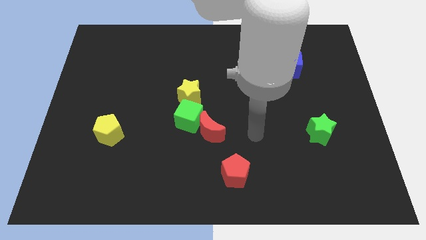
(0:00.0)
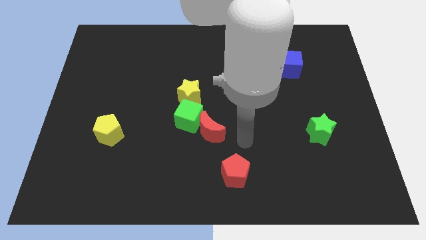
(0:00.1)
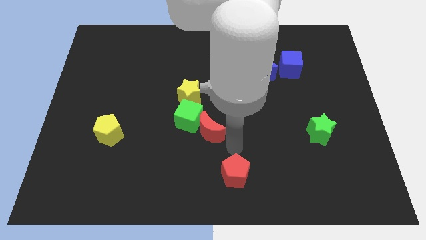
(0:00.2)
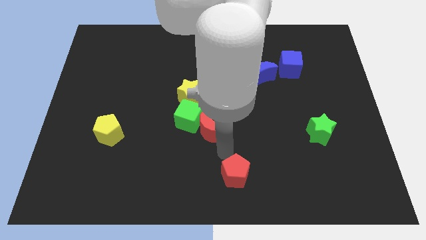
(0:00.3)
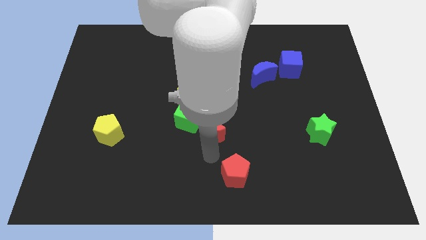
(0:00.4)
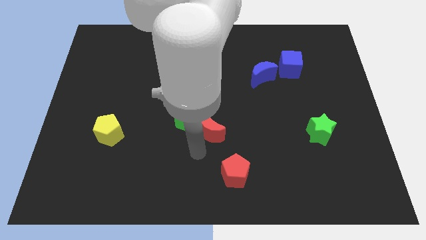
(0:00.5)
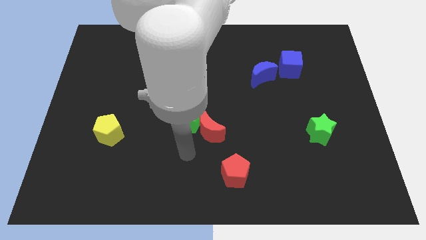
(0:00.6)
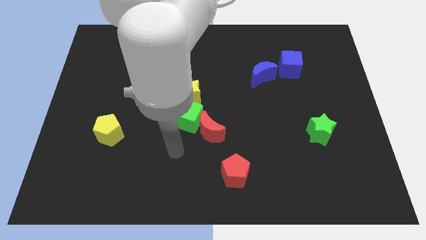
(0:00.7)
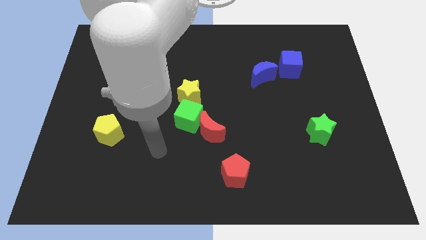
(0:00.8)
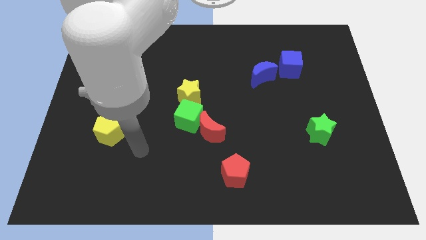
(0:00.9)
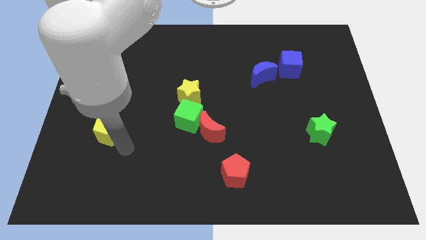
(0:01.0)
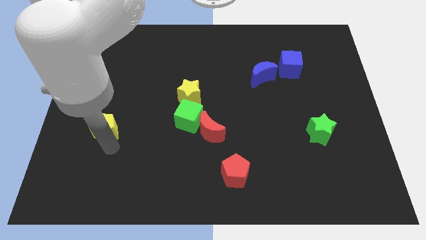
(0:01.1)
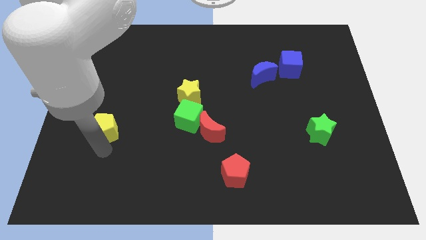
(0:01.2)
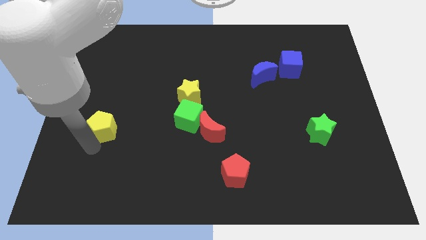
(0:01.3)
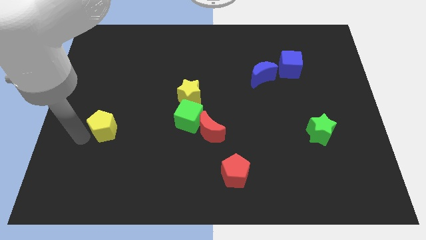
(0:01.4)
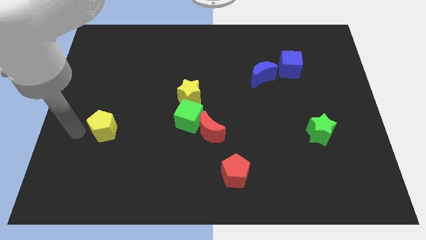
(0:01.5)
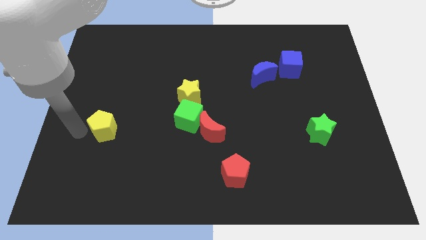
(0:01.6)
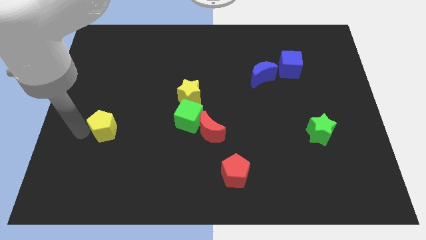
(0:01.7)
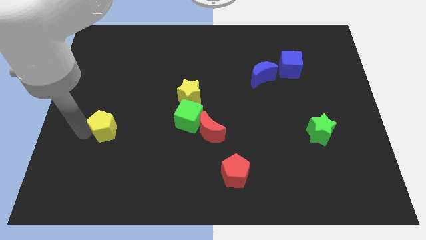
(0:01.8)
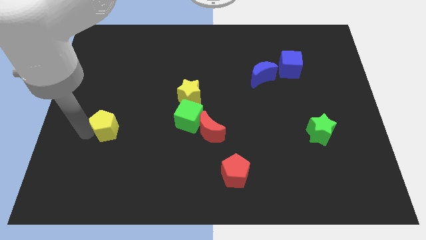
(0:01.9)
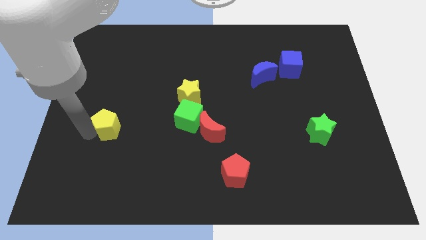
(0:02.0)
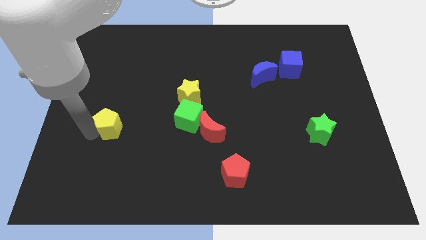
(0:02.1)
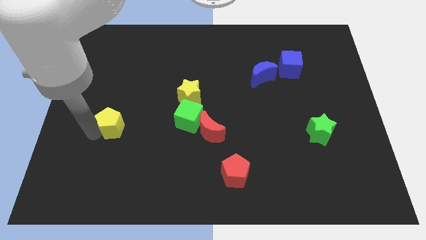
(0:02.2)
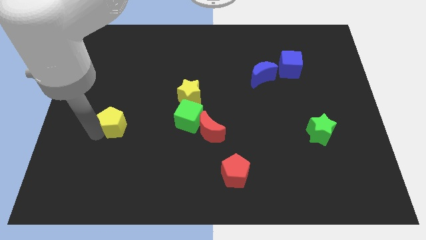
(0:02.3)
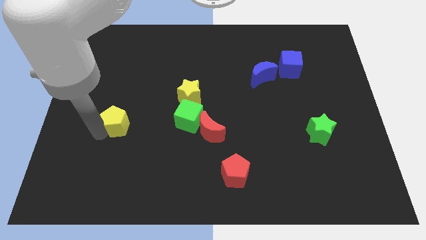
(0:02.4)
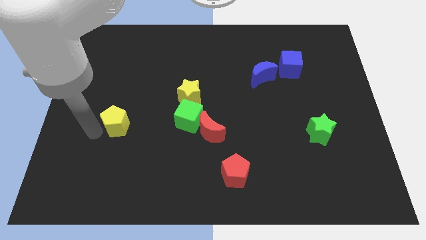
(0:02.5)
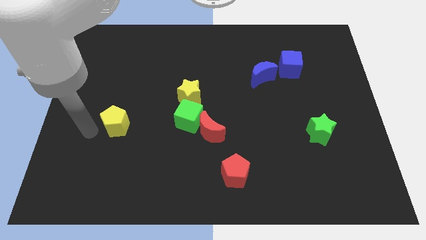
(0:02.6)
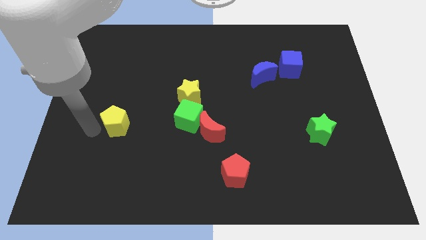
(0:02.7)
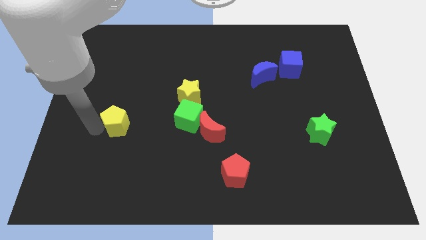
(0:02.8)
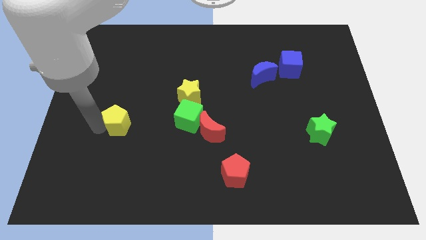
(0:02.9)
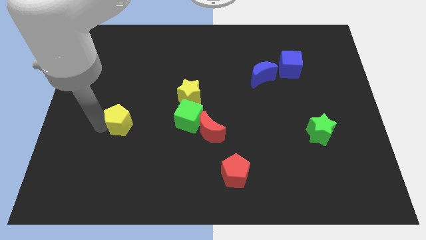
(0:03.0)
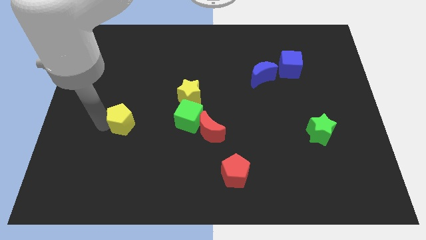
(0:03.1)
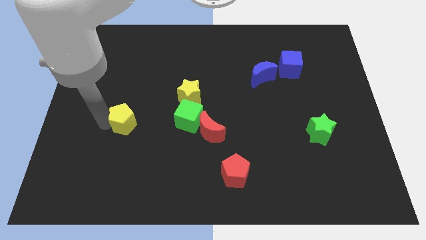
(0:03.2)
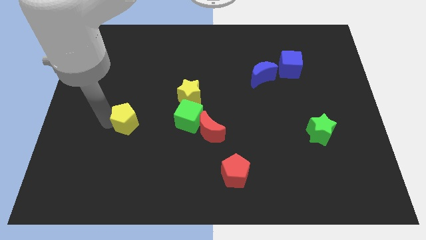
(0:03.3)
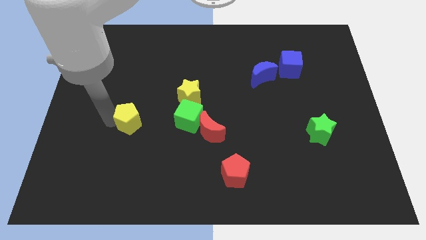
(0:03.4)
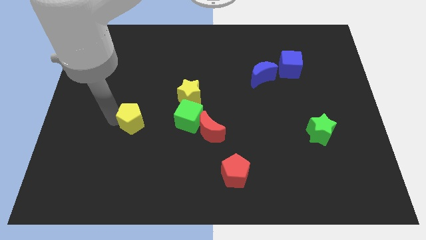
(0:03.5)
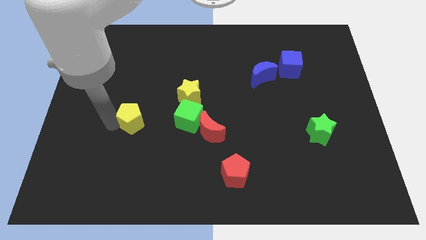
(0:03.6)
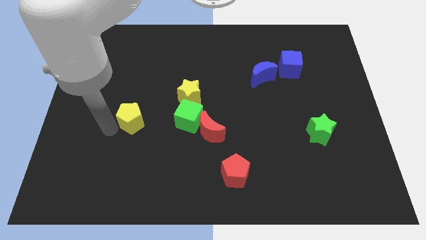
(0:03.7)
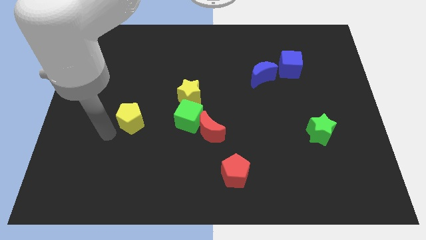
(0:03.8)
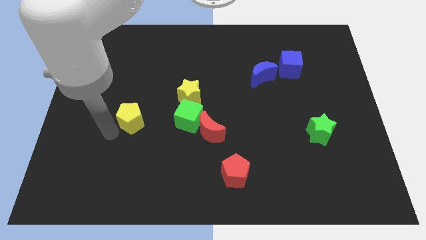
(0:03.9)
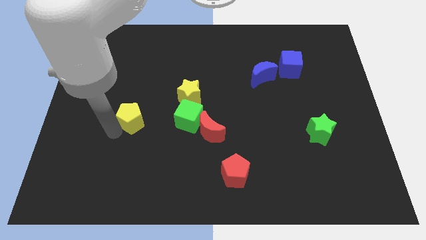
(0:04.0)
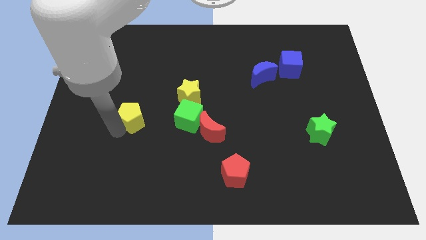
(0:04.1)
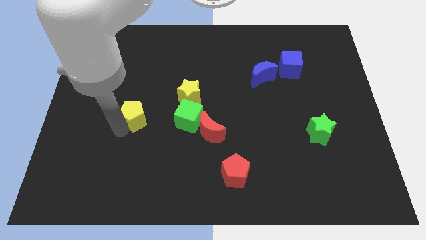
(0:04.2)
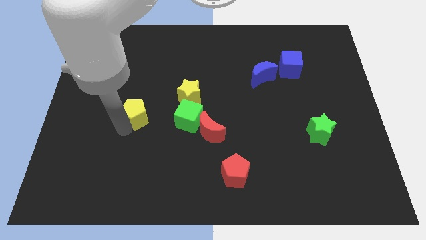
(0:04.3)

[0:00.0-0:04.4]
slide the yellow pentagon somewhat upwards and then right

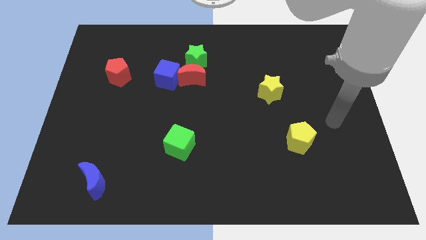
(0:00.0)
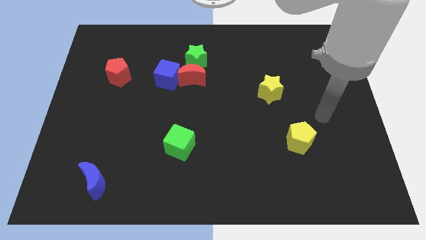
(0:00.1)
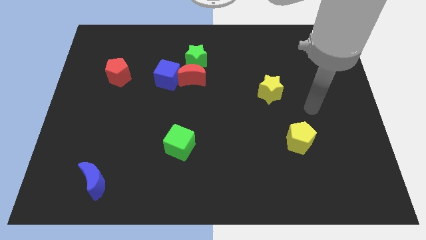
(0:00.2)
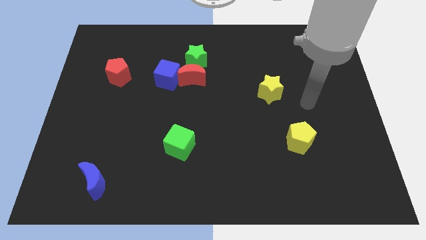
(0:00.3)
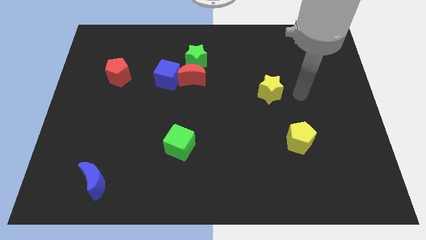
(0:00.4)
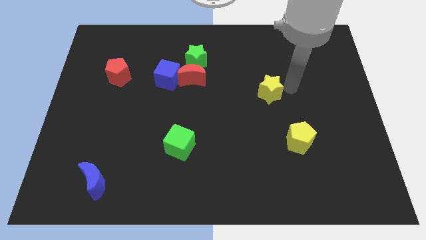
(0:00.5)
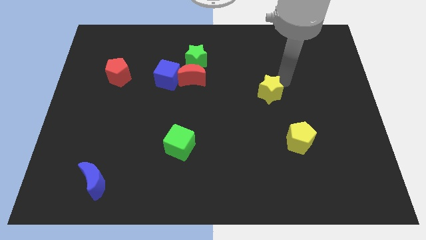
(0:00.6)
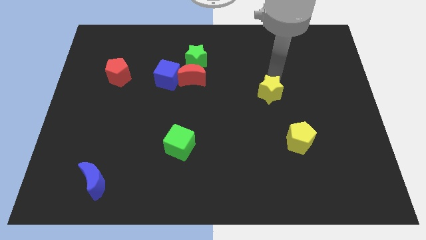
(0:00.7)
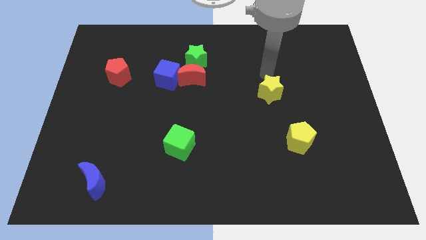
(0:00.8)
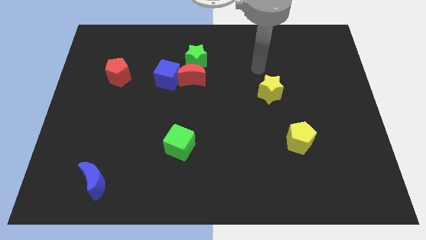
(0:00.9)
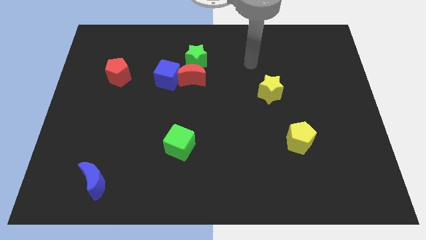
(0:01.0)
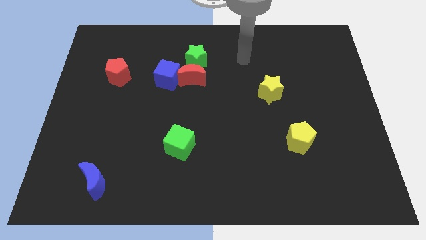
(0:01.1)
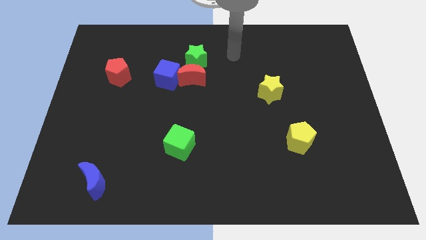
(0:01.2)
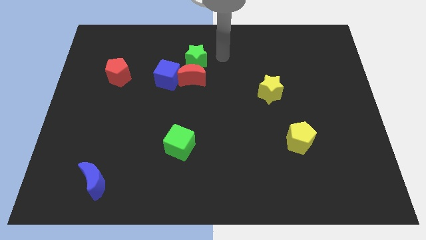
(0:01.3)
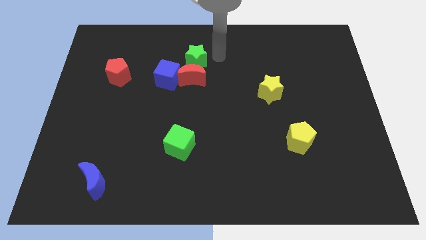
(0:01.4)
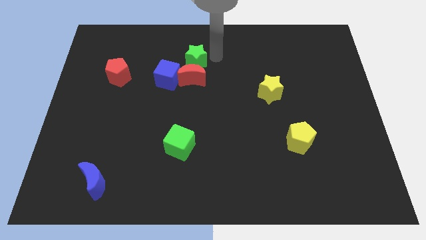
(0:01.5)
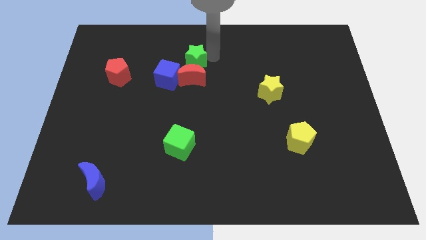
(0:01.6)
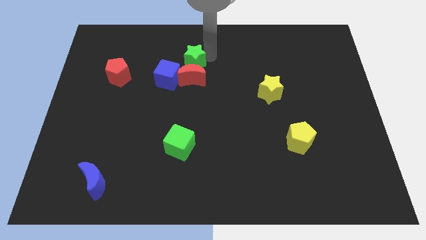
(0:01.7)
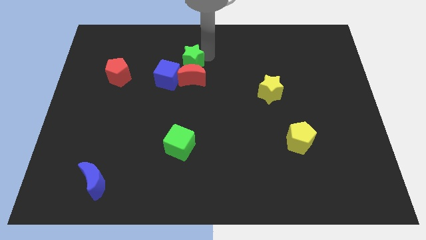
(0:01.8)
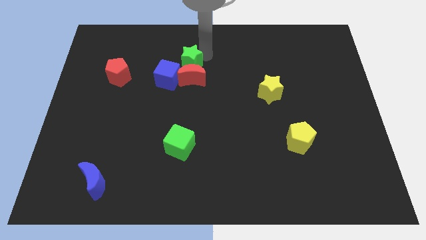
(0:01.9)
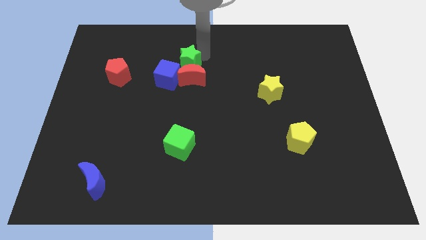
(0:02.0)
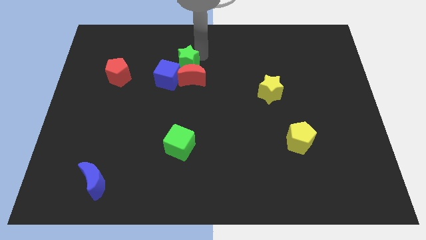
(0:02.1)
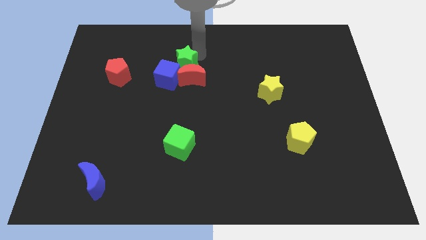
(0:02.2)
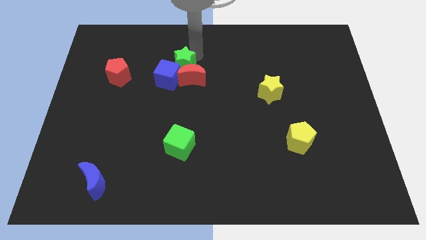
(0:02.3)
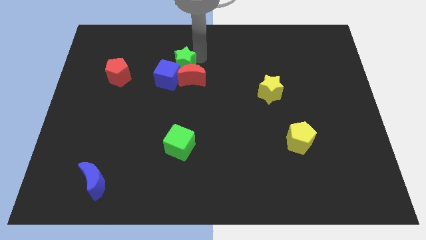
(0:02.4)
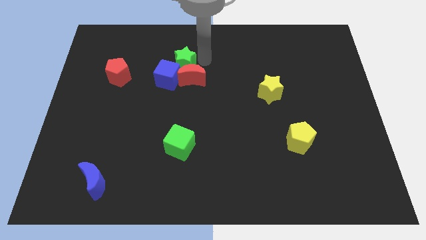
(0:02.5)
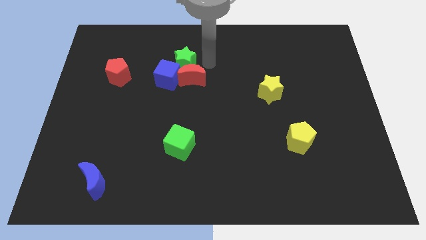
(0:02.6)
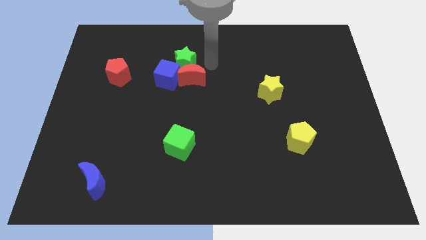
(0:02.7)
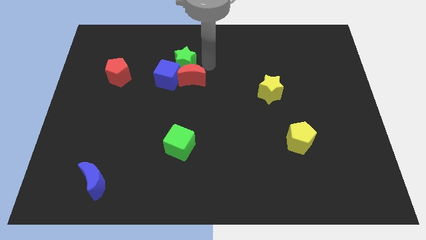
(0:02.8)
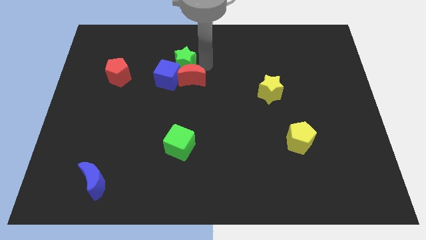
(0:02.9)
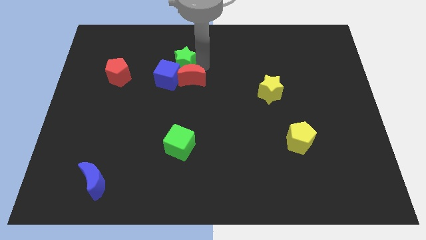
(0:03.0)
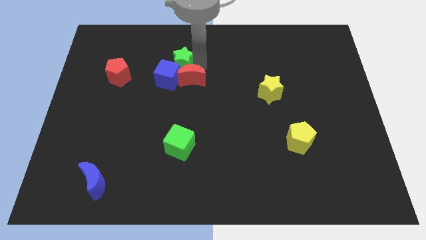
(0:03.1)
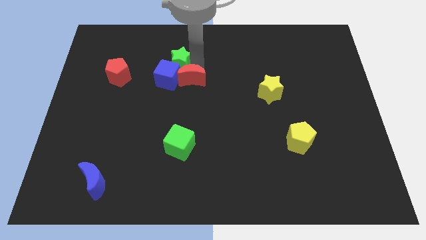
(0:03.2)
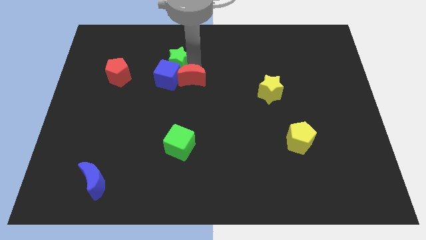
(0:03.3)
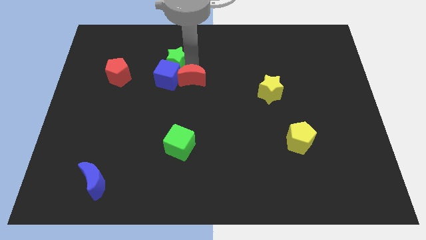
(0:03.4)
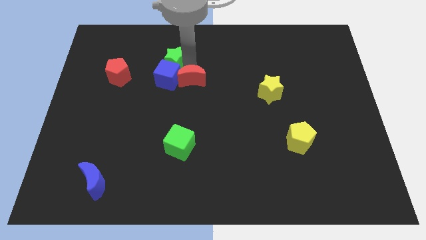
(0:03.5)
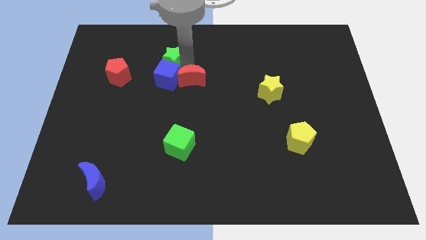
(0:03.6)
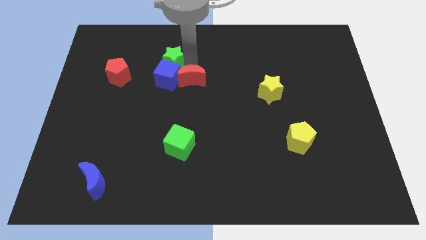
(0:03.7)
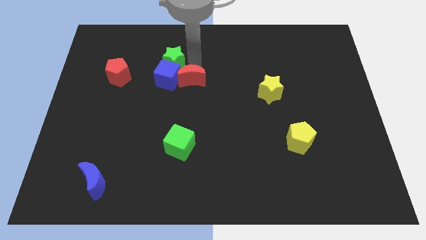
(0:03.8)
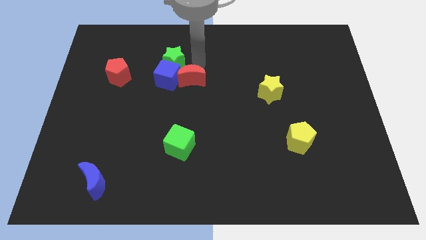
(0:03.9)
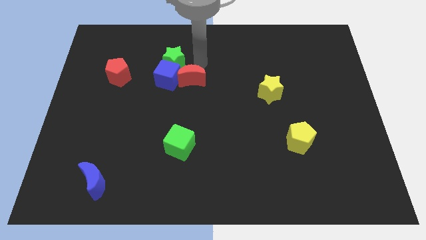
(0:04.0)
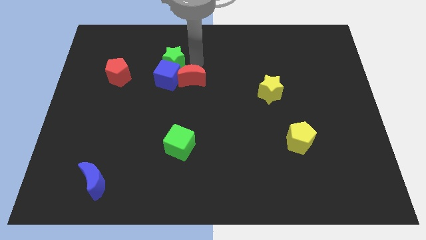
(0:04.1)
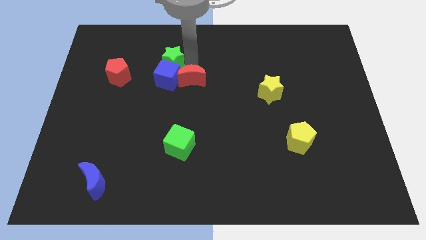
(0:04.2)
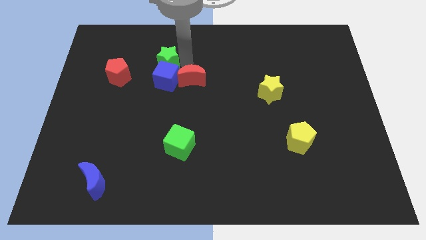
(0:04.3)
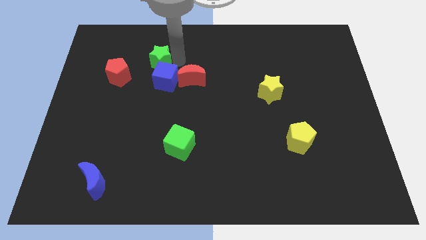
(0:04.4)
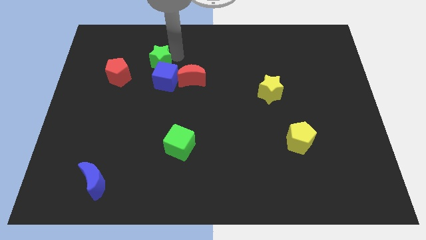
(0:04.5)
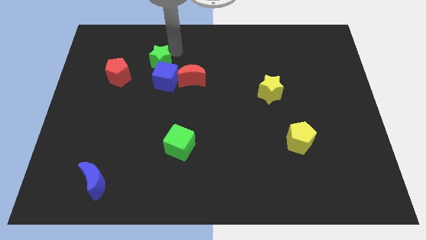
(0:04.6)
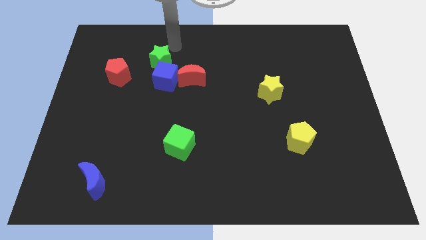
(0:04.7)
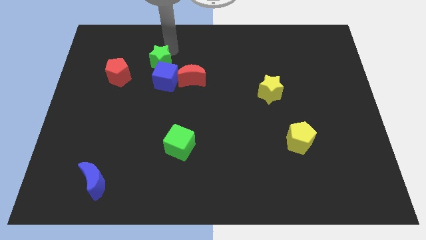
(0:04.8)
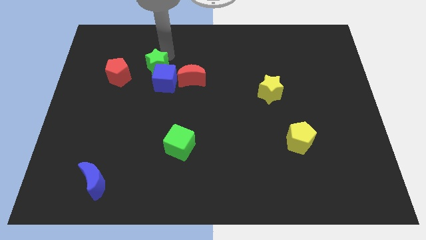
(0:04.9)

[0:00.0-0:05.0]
push the green star downwards and to the left diagonally a little bit
